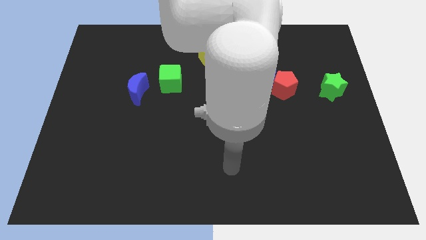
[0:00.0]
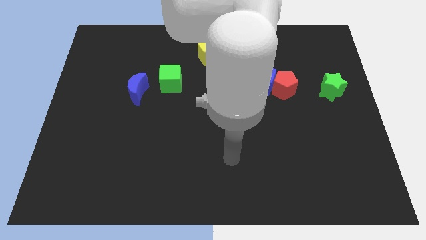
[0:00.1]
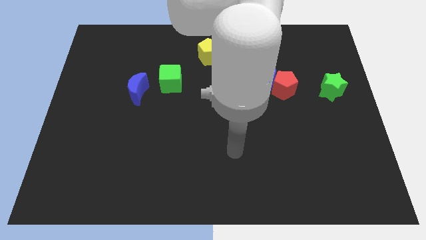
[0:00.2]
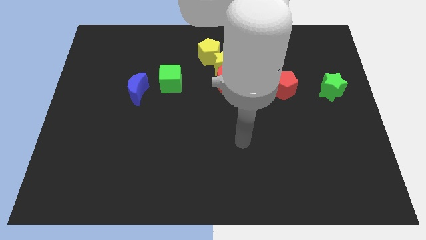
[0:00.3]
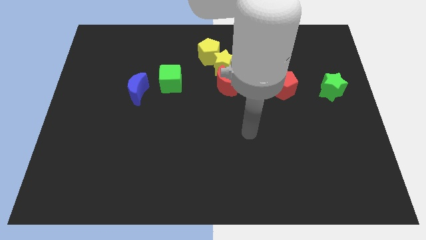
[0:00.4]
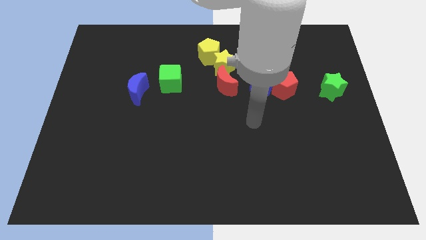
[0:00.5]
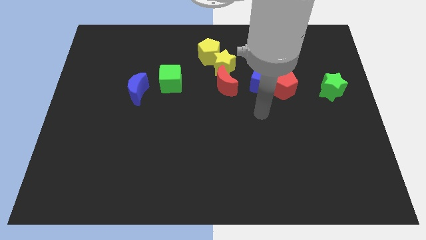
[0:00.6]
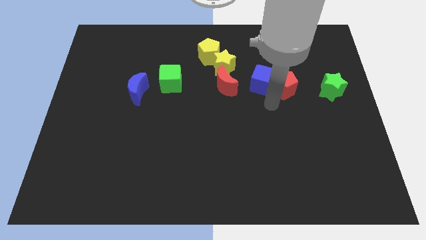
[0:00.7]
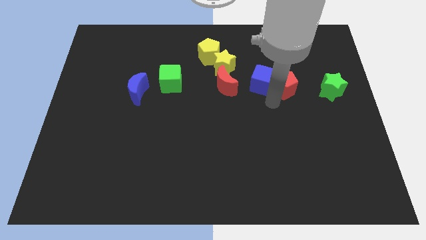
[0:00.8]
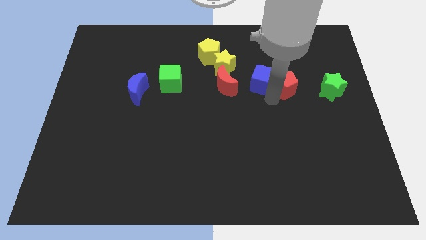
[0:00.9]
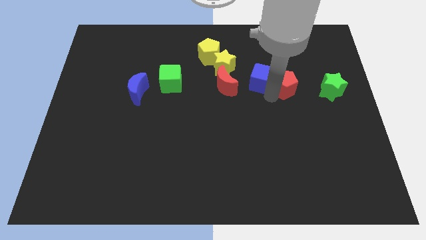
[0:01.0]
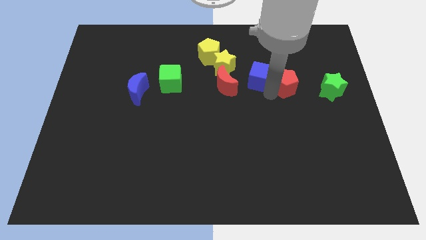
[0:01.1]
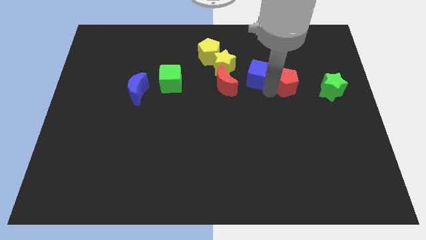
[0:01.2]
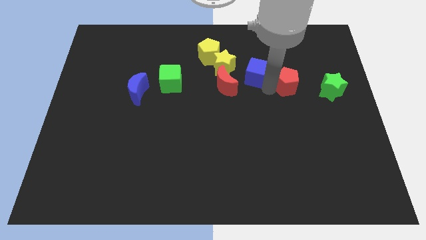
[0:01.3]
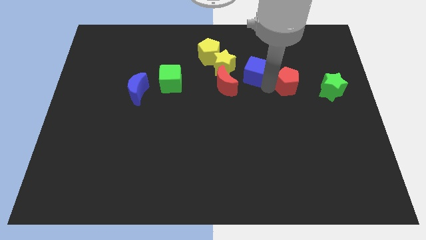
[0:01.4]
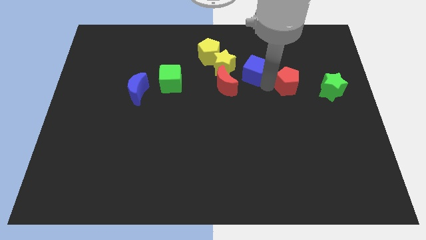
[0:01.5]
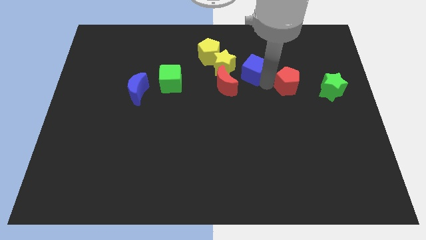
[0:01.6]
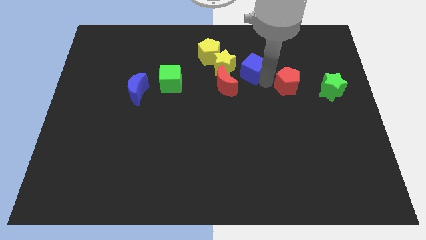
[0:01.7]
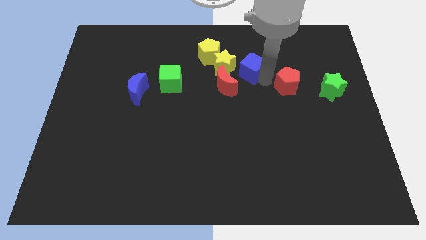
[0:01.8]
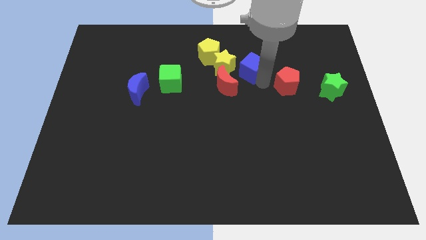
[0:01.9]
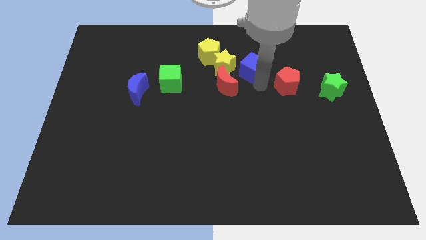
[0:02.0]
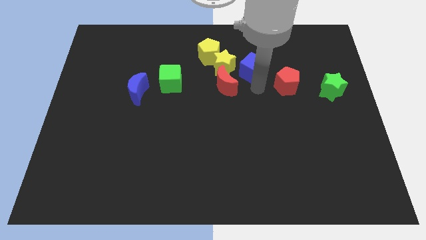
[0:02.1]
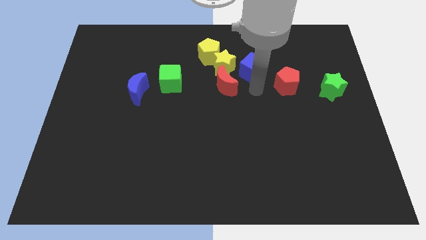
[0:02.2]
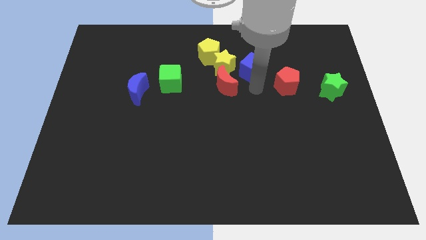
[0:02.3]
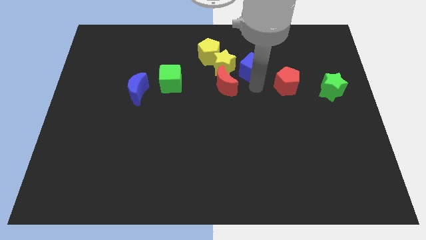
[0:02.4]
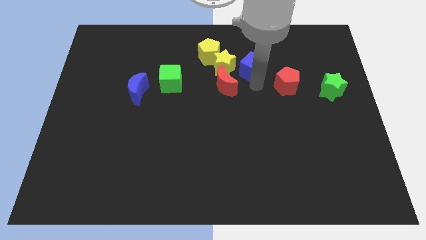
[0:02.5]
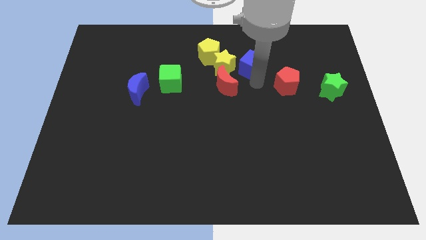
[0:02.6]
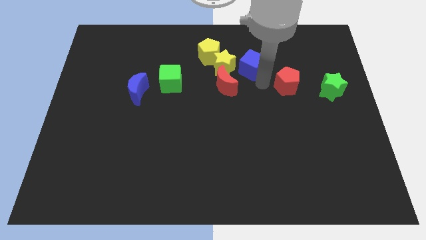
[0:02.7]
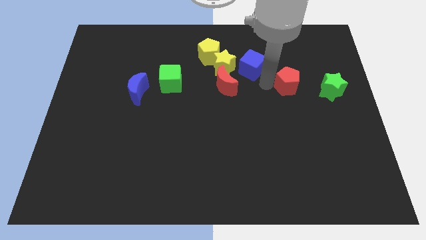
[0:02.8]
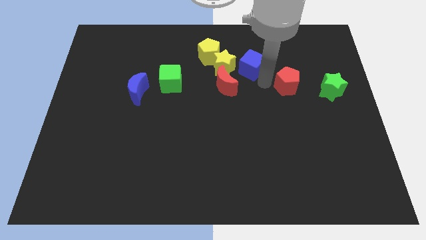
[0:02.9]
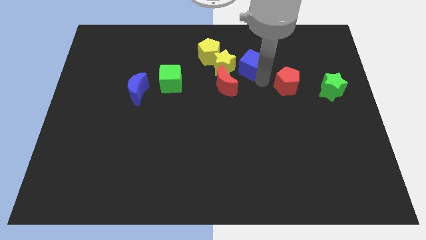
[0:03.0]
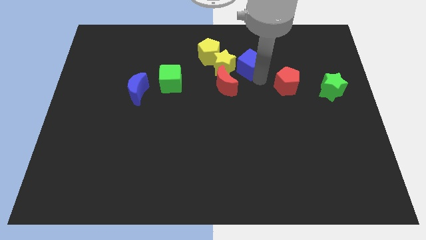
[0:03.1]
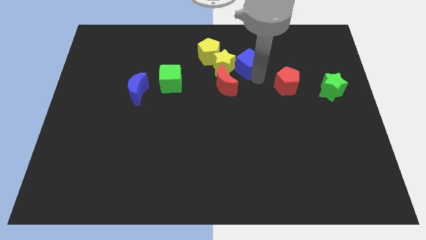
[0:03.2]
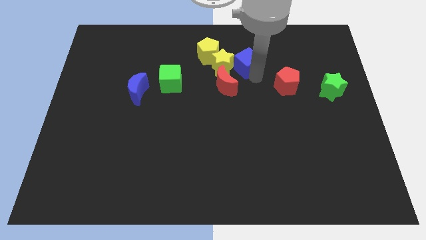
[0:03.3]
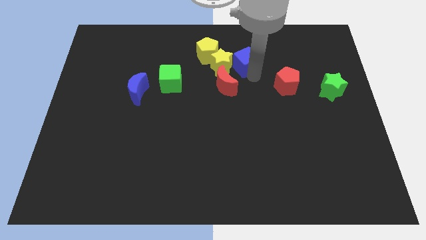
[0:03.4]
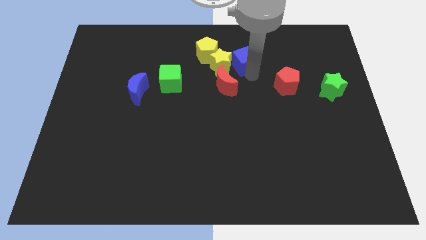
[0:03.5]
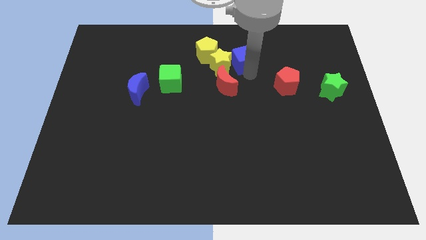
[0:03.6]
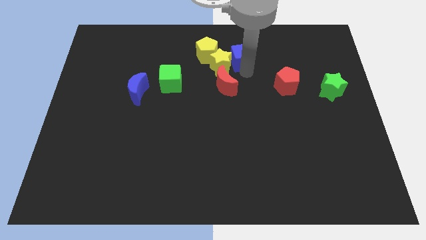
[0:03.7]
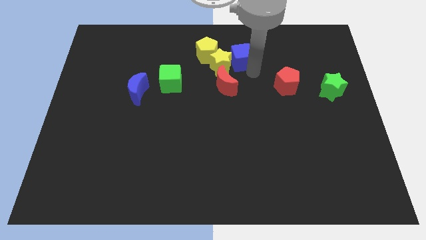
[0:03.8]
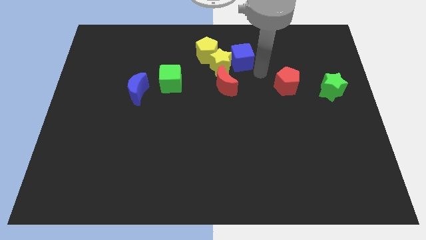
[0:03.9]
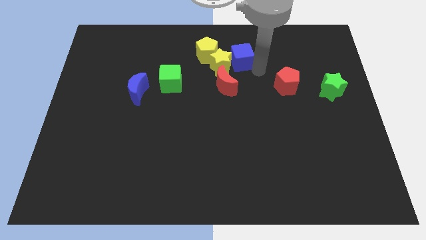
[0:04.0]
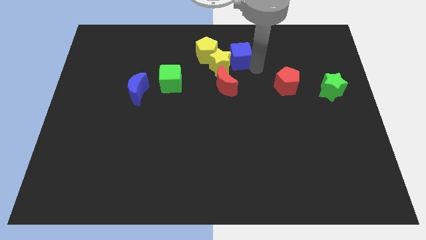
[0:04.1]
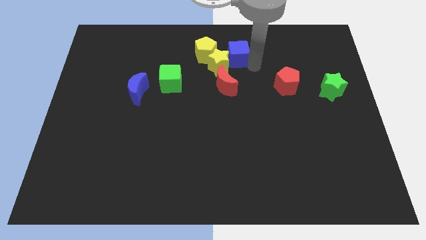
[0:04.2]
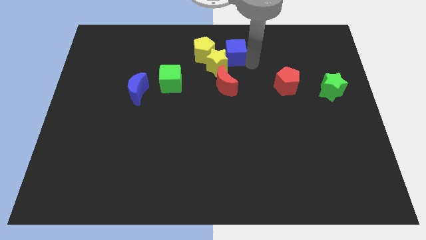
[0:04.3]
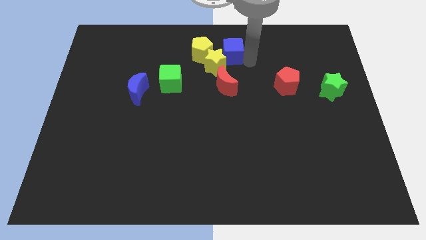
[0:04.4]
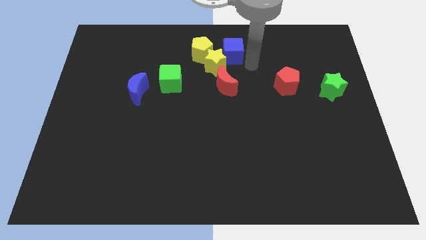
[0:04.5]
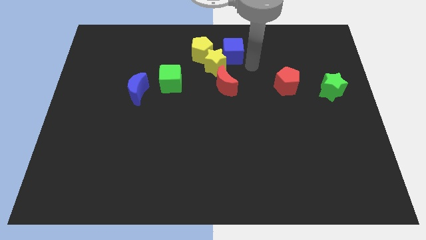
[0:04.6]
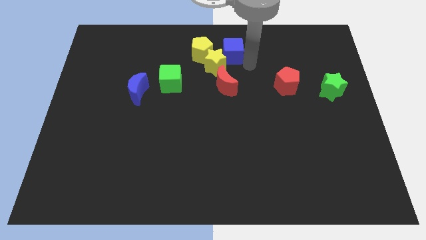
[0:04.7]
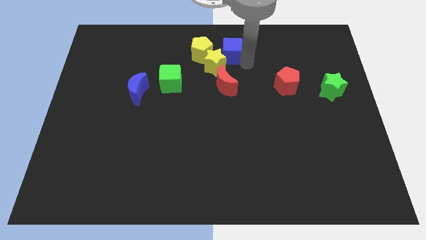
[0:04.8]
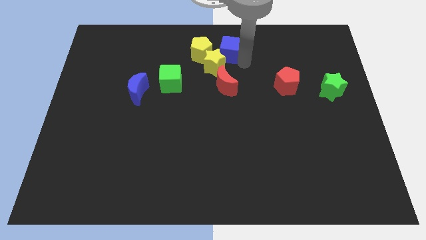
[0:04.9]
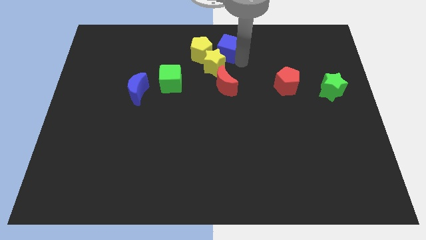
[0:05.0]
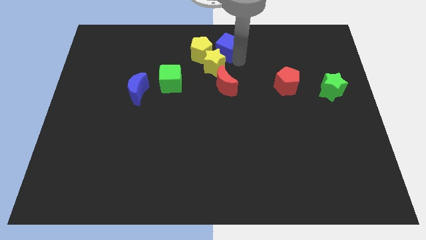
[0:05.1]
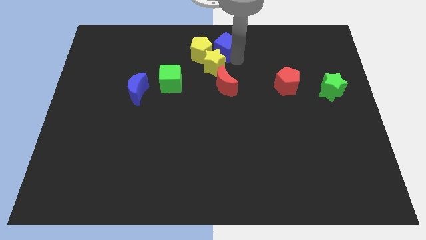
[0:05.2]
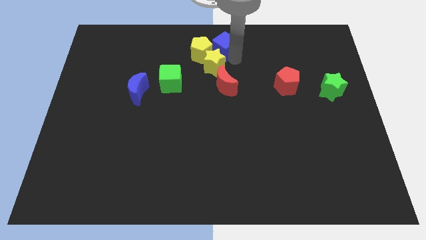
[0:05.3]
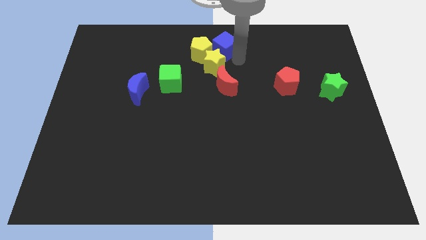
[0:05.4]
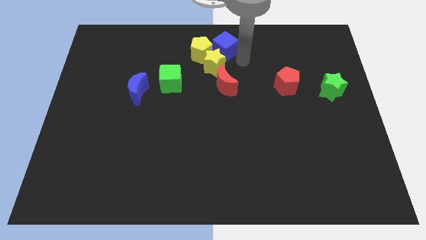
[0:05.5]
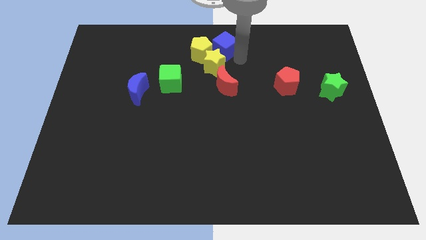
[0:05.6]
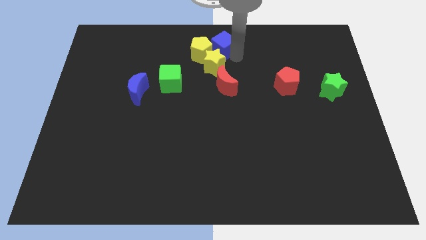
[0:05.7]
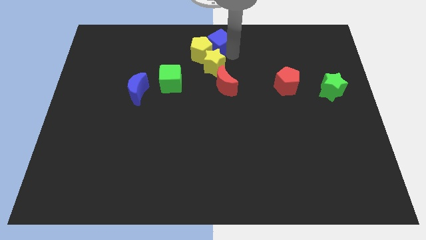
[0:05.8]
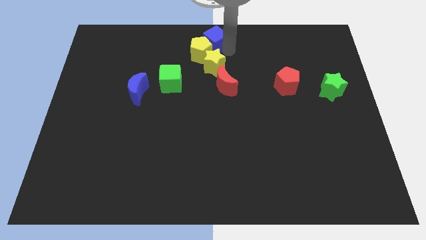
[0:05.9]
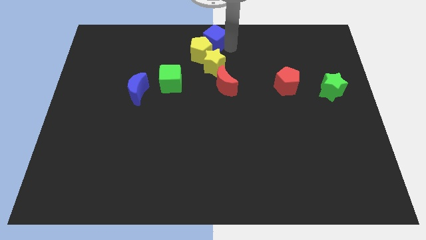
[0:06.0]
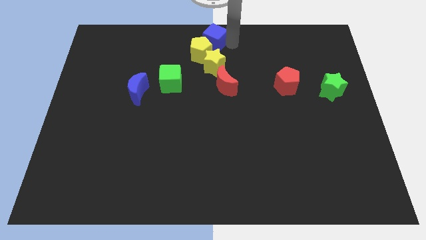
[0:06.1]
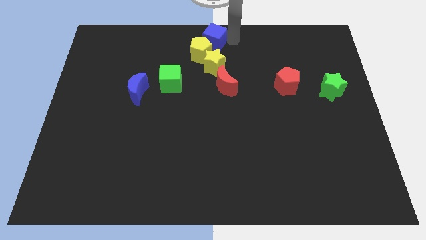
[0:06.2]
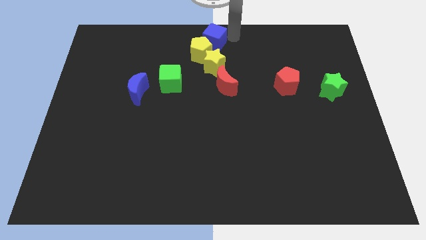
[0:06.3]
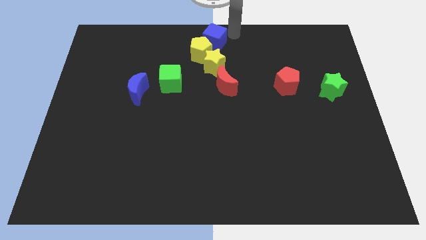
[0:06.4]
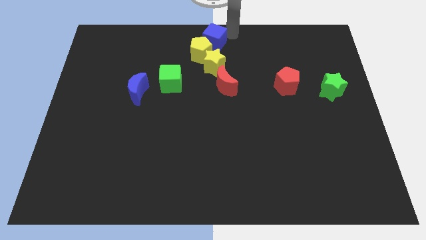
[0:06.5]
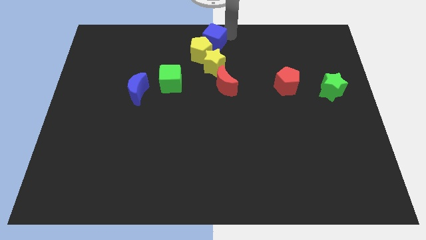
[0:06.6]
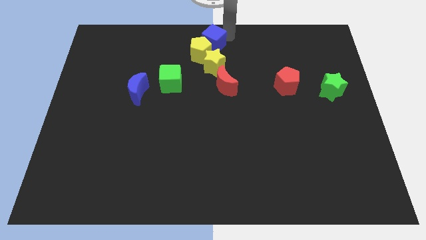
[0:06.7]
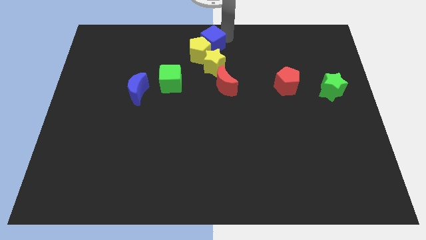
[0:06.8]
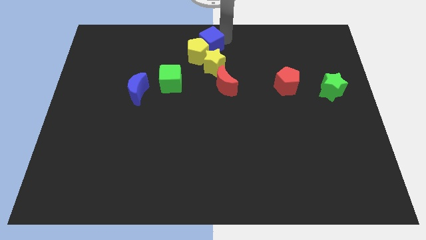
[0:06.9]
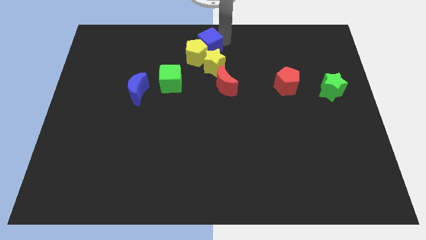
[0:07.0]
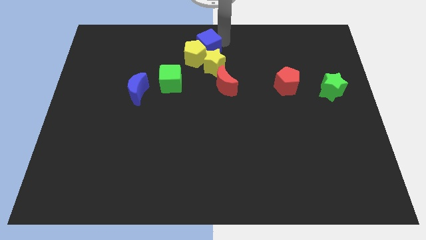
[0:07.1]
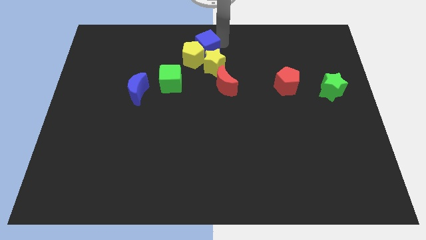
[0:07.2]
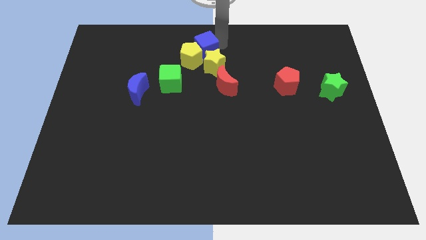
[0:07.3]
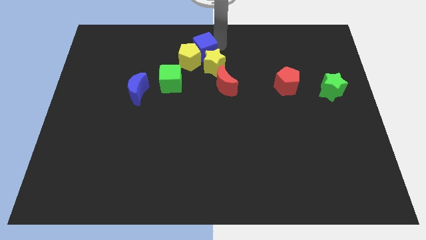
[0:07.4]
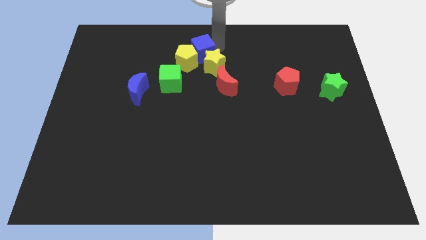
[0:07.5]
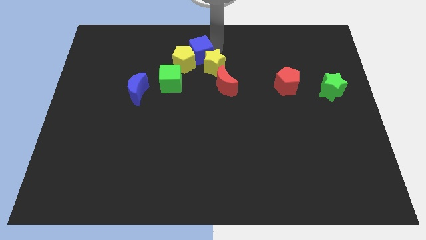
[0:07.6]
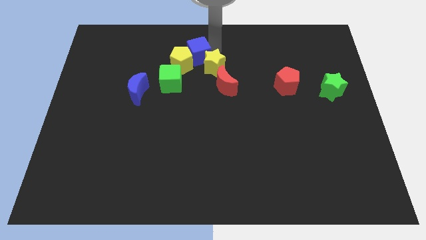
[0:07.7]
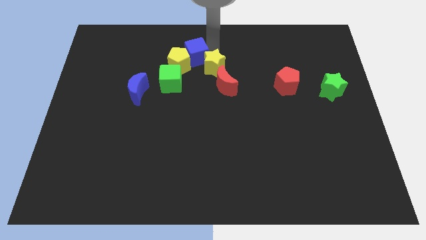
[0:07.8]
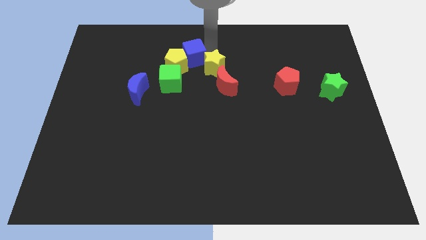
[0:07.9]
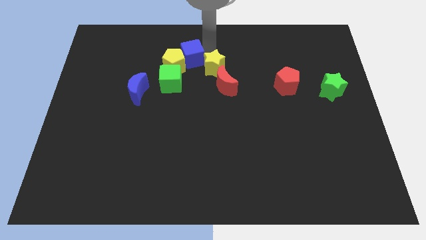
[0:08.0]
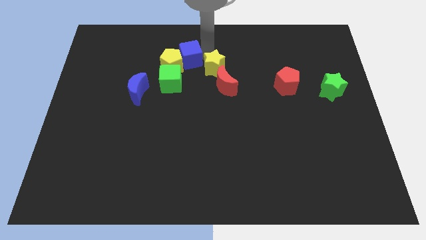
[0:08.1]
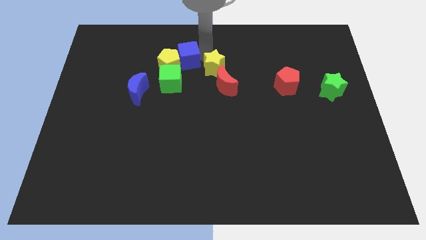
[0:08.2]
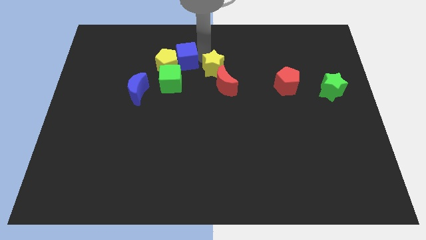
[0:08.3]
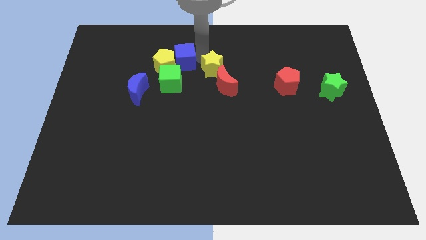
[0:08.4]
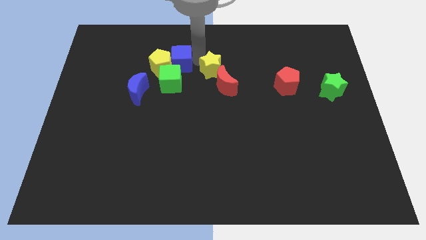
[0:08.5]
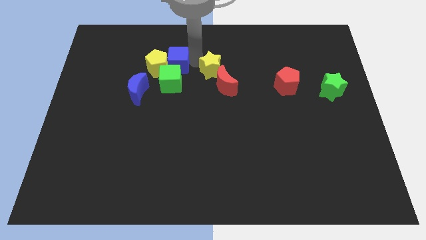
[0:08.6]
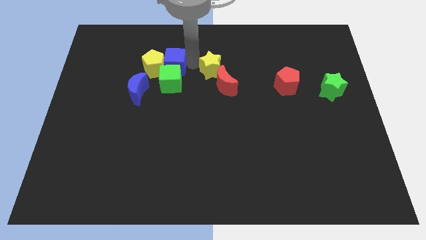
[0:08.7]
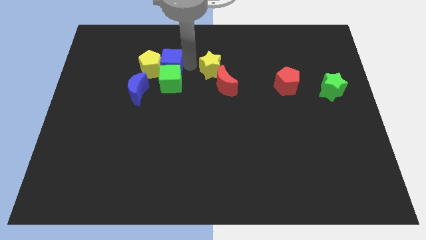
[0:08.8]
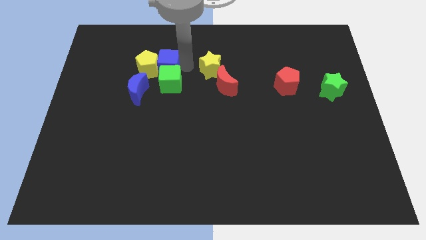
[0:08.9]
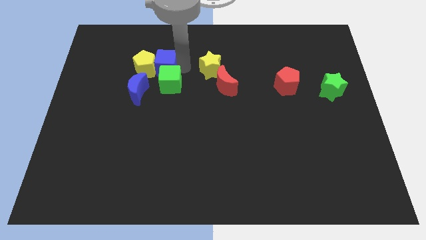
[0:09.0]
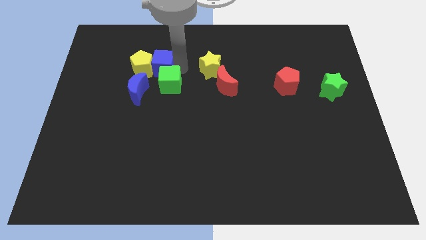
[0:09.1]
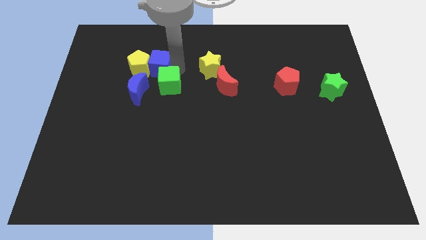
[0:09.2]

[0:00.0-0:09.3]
push the blue cube above the blue moon
